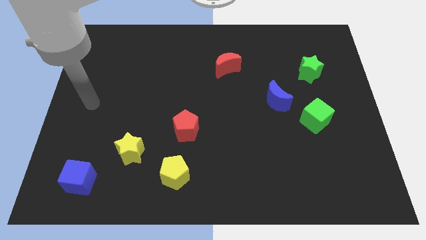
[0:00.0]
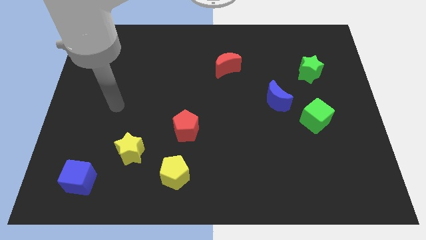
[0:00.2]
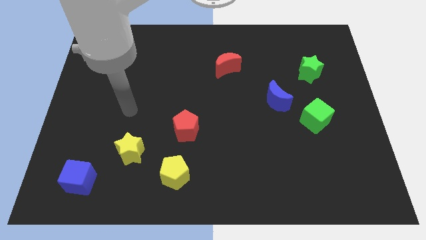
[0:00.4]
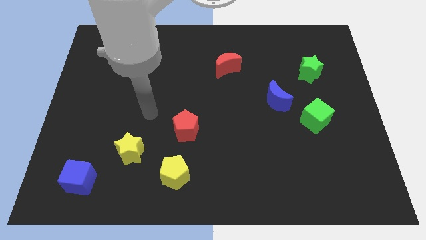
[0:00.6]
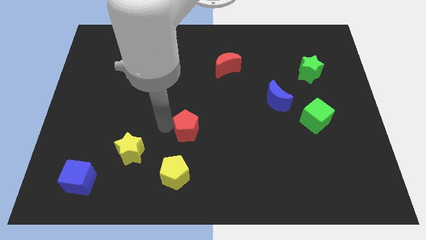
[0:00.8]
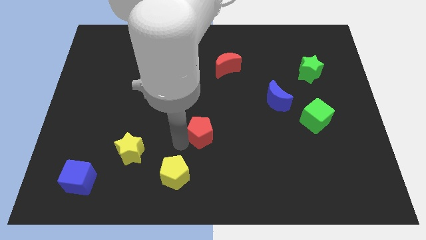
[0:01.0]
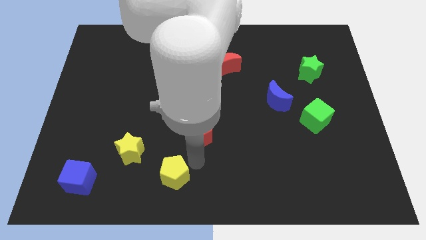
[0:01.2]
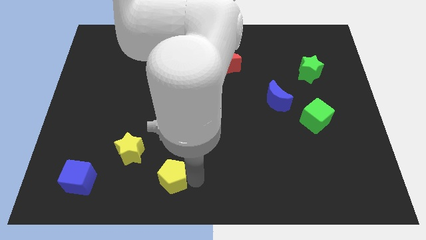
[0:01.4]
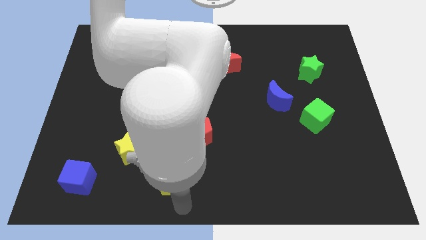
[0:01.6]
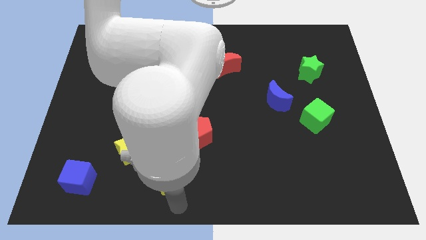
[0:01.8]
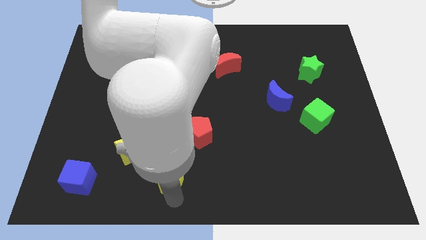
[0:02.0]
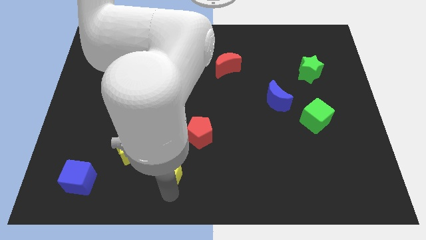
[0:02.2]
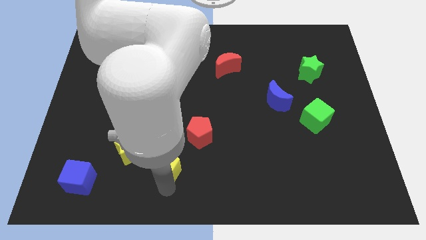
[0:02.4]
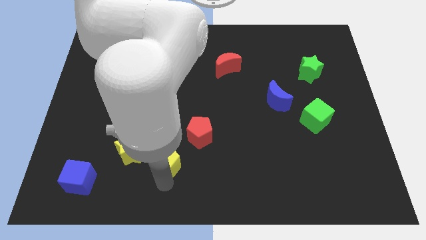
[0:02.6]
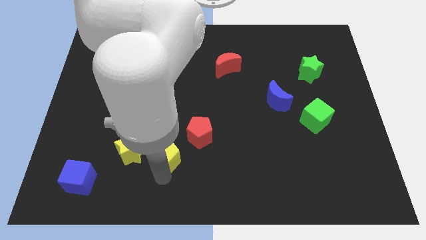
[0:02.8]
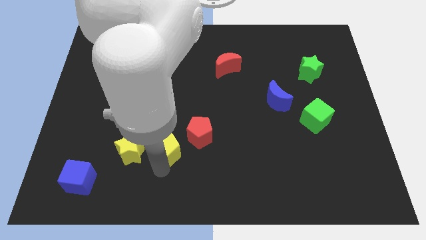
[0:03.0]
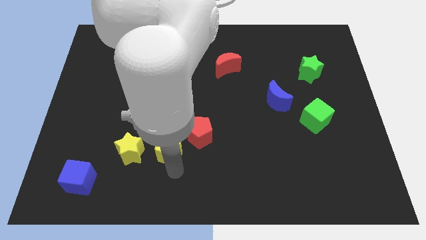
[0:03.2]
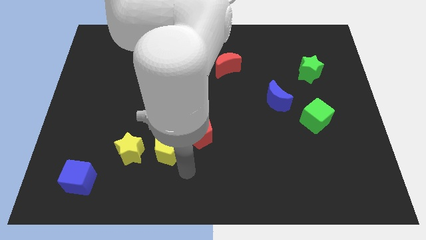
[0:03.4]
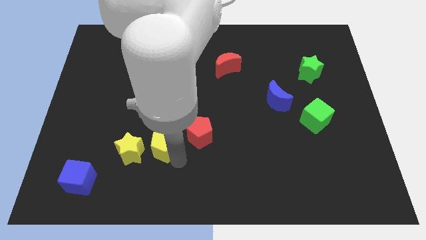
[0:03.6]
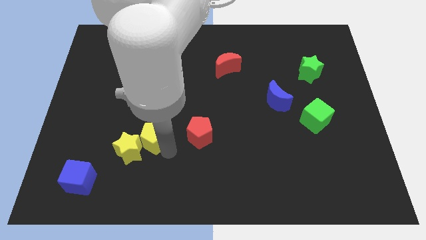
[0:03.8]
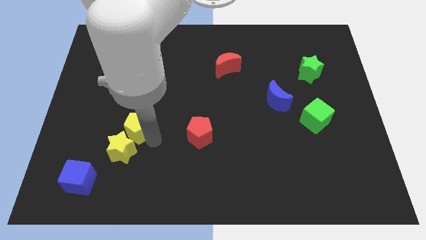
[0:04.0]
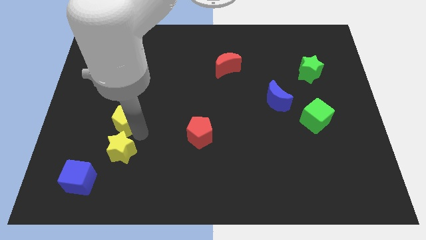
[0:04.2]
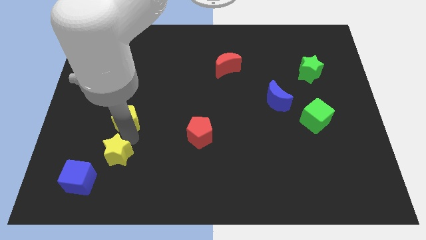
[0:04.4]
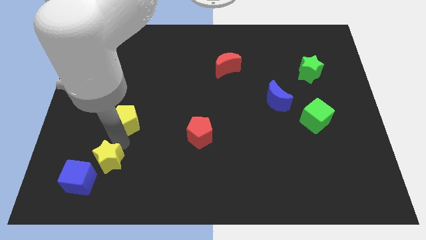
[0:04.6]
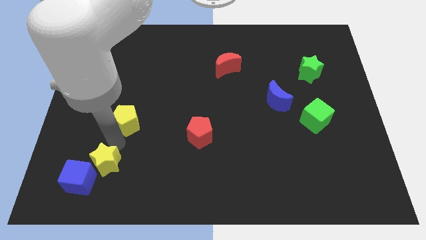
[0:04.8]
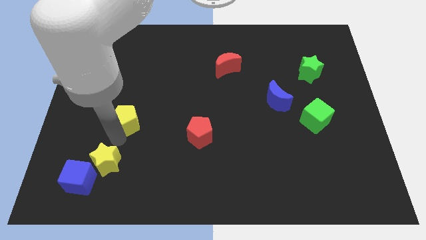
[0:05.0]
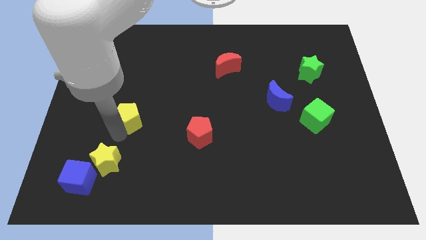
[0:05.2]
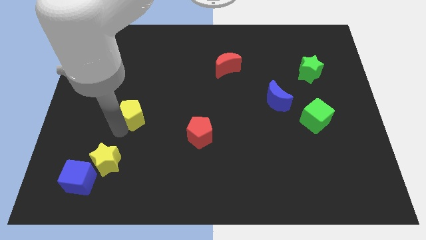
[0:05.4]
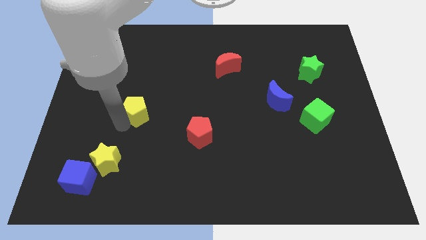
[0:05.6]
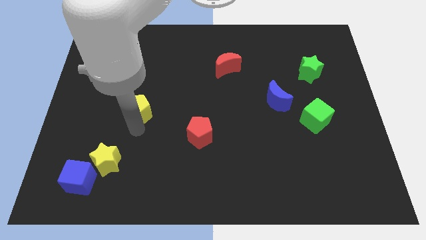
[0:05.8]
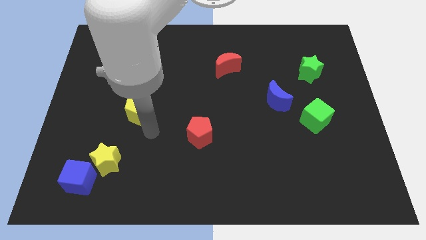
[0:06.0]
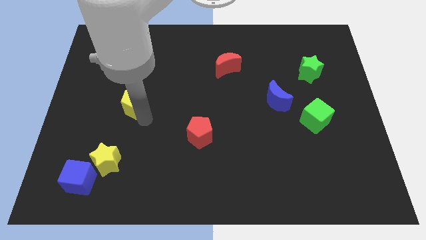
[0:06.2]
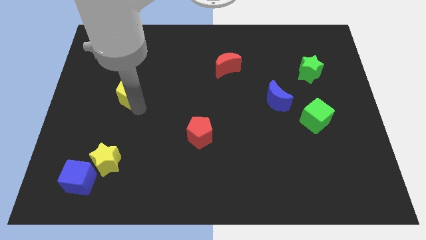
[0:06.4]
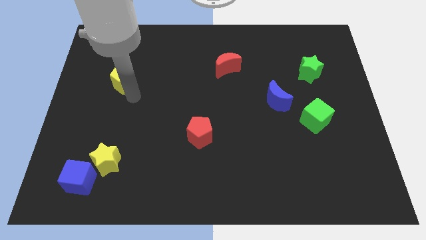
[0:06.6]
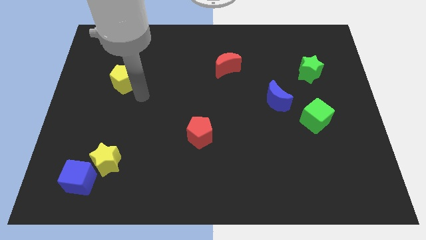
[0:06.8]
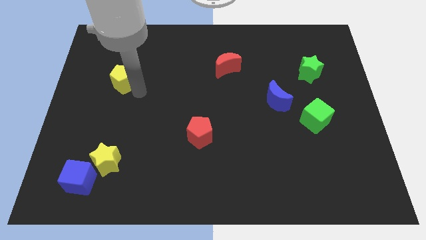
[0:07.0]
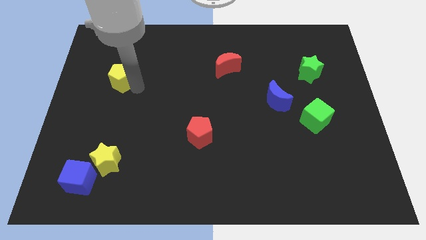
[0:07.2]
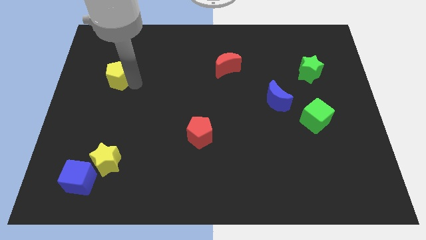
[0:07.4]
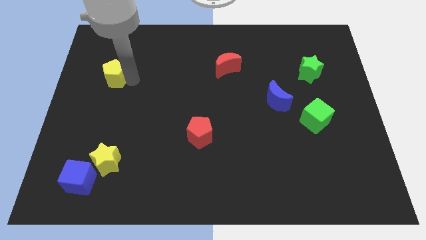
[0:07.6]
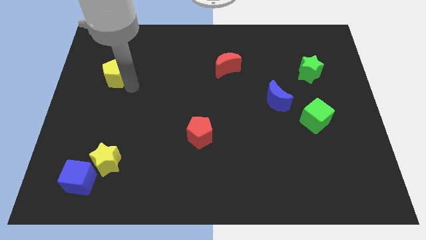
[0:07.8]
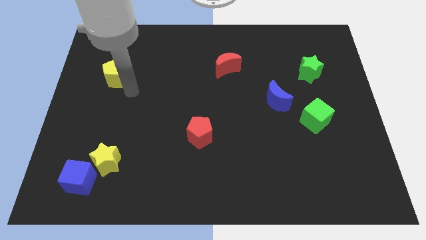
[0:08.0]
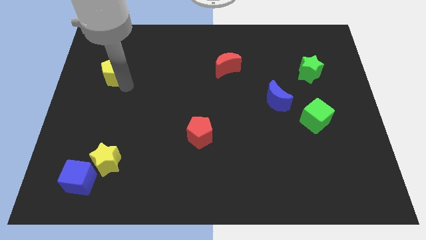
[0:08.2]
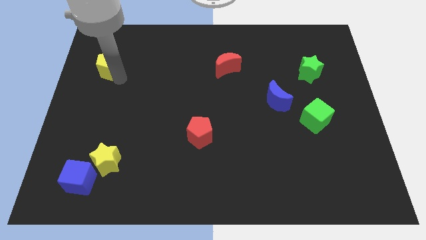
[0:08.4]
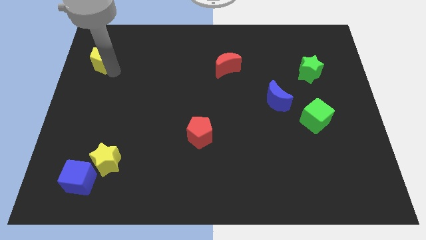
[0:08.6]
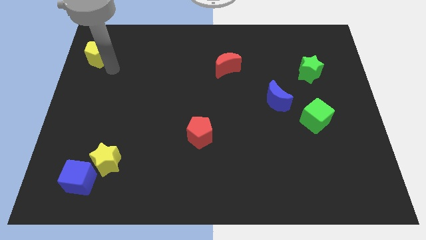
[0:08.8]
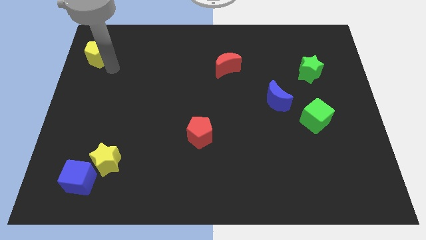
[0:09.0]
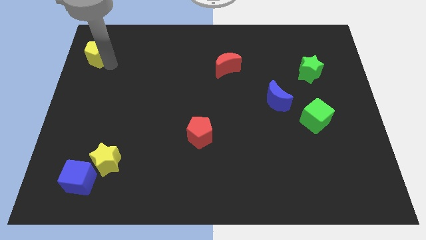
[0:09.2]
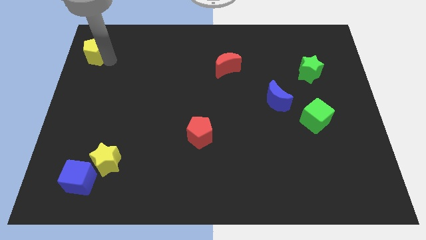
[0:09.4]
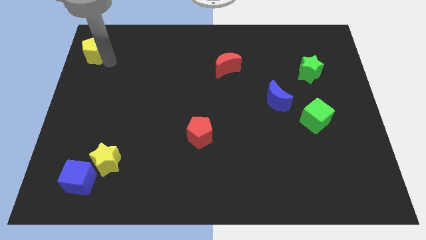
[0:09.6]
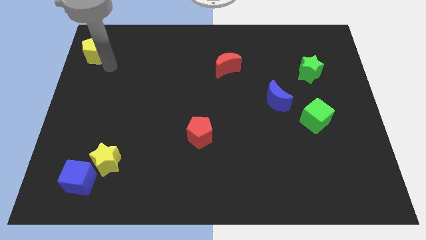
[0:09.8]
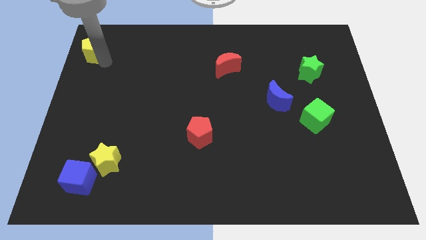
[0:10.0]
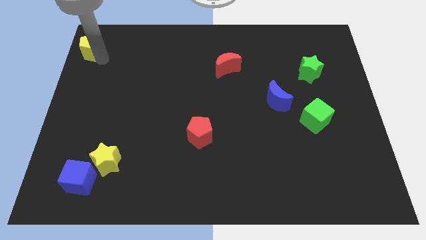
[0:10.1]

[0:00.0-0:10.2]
put the yellow pentagon to the upper left corner
